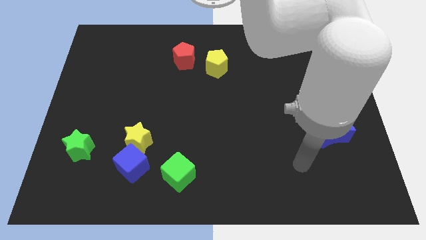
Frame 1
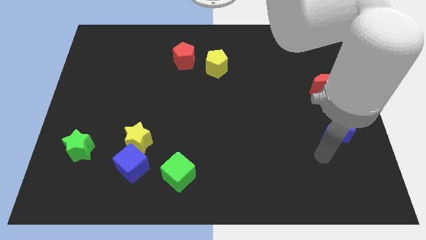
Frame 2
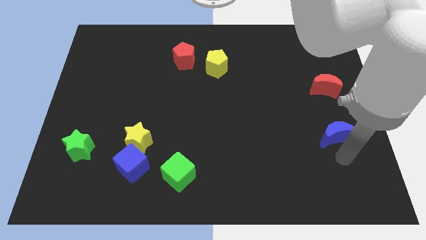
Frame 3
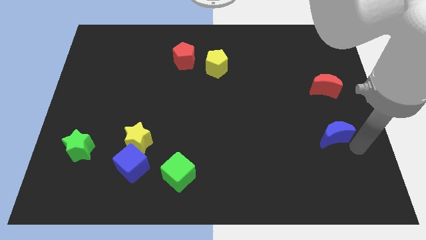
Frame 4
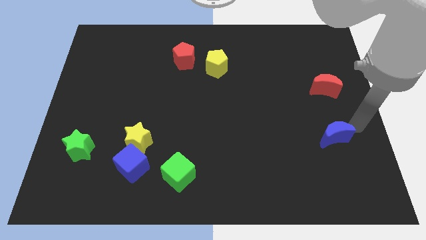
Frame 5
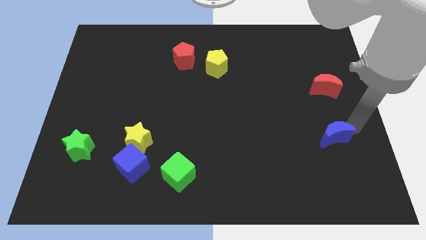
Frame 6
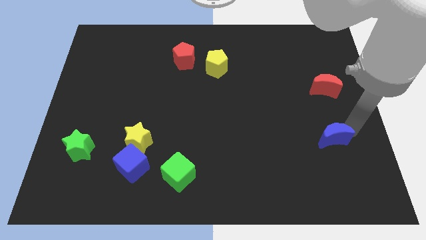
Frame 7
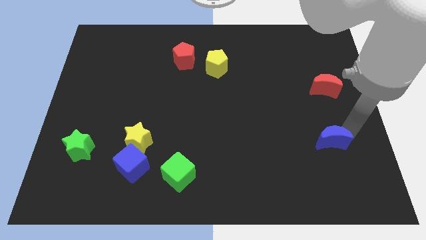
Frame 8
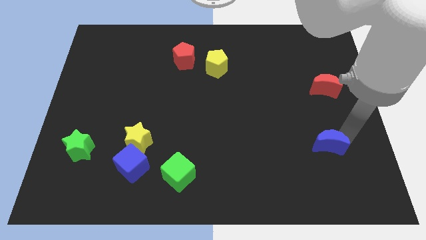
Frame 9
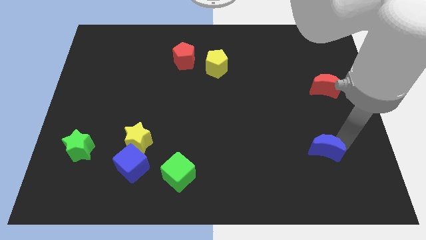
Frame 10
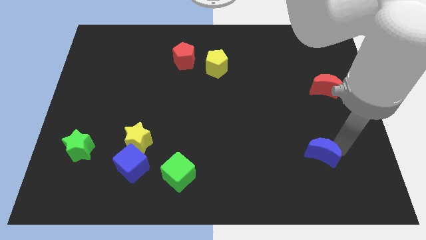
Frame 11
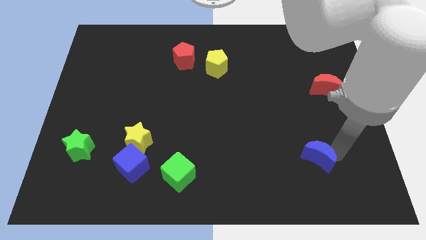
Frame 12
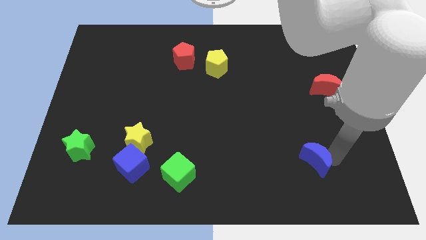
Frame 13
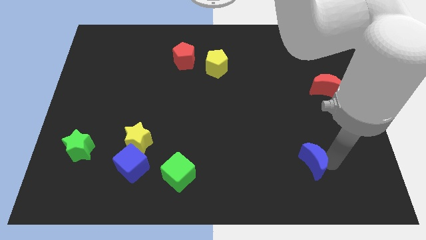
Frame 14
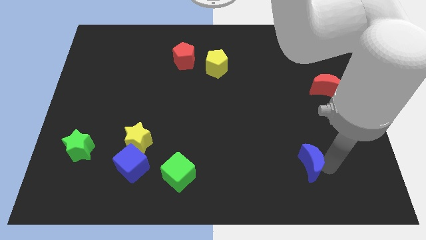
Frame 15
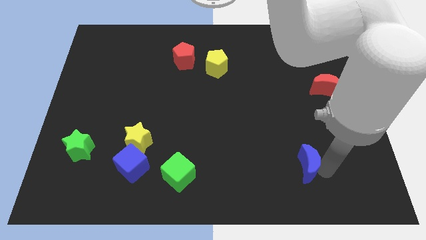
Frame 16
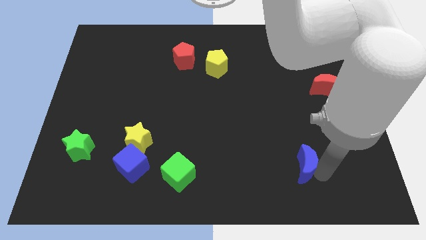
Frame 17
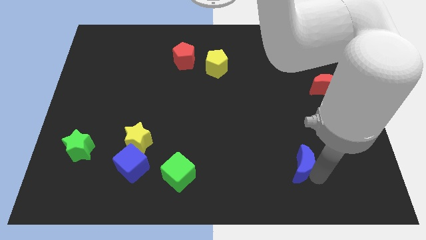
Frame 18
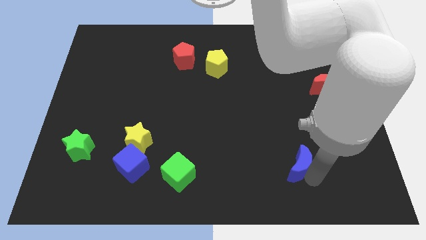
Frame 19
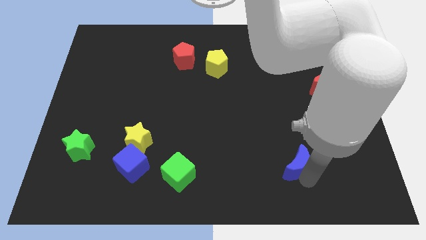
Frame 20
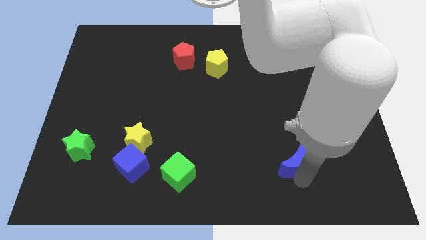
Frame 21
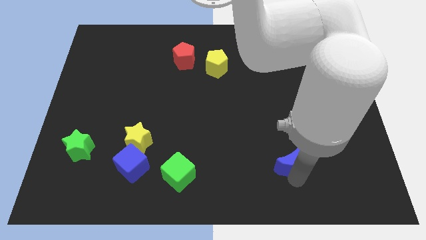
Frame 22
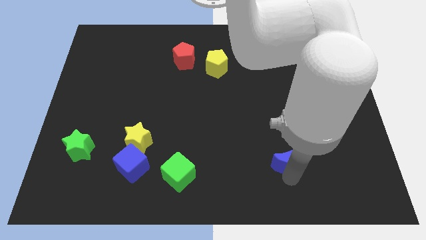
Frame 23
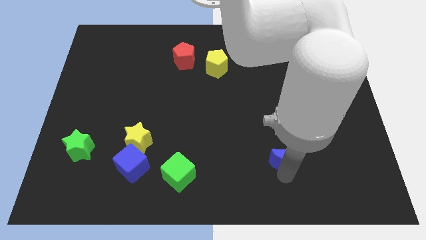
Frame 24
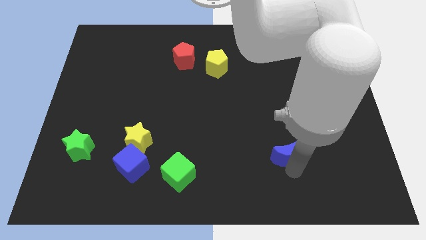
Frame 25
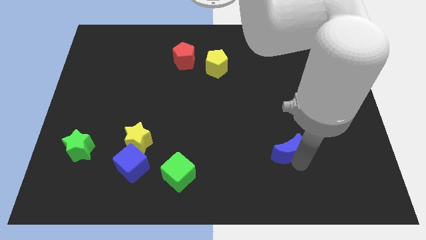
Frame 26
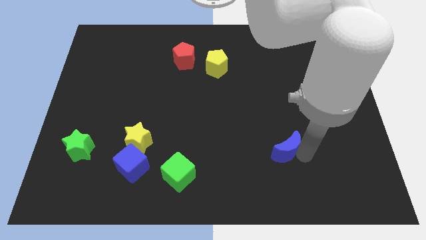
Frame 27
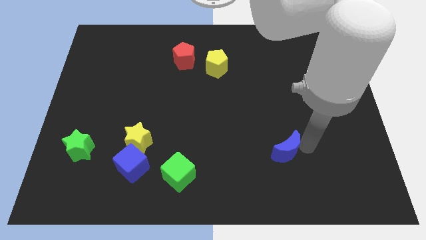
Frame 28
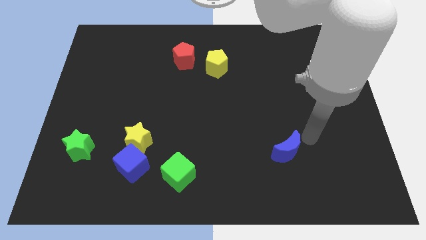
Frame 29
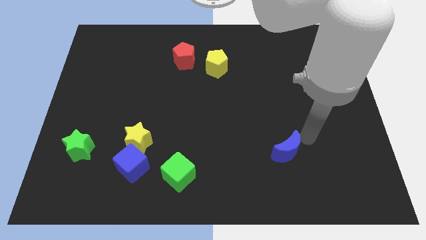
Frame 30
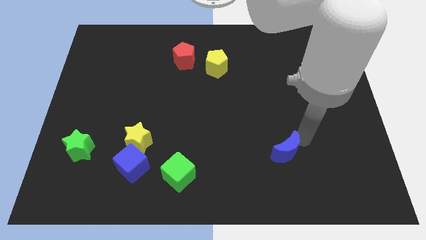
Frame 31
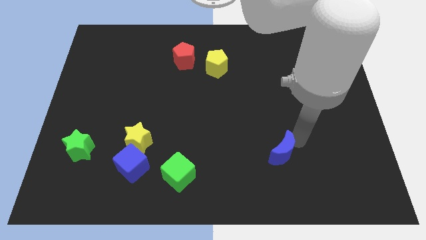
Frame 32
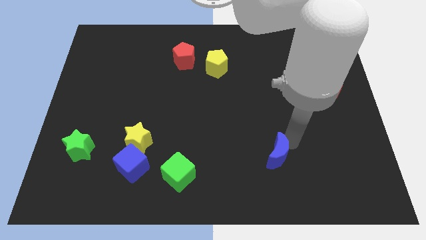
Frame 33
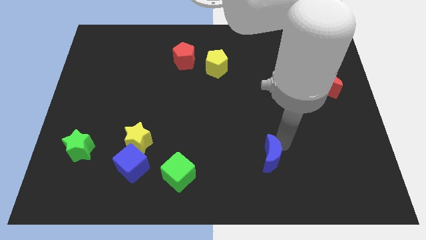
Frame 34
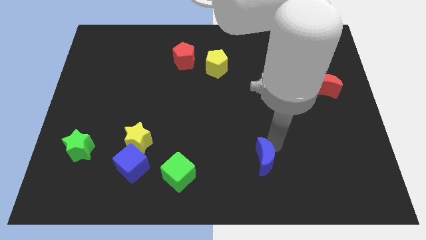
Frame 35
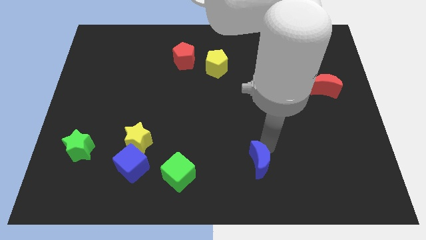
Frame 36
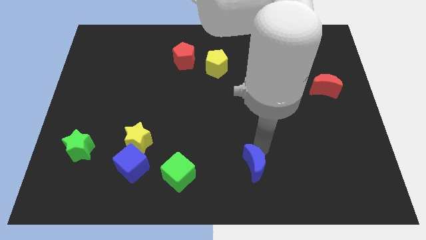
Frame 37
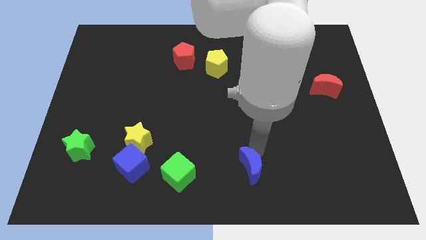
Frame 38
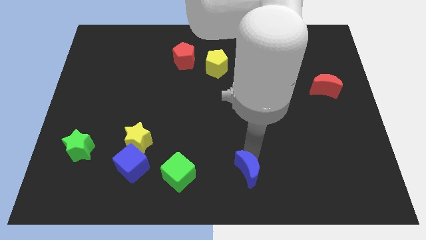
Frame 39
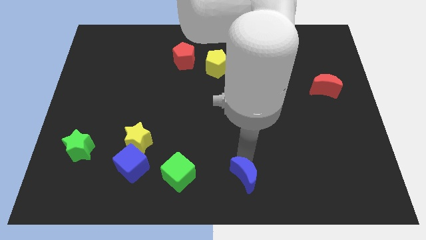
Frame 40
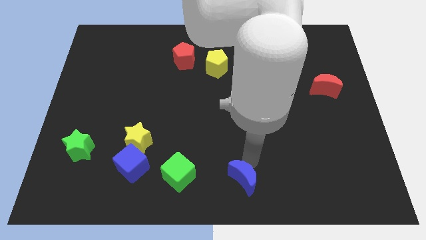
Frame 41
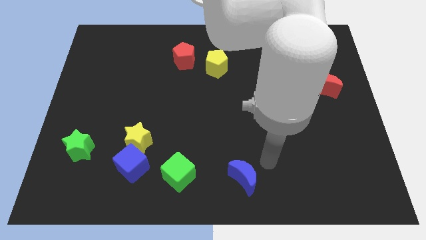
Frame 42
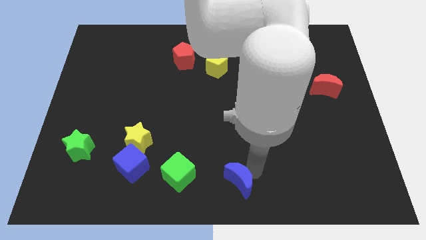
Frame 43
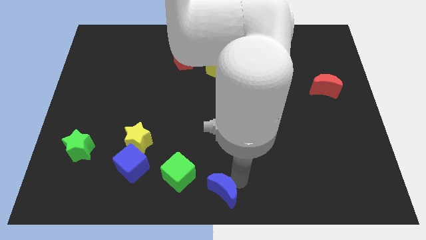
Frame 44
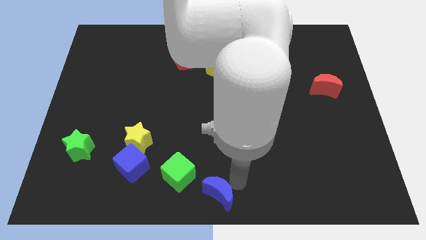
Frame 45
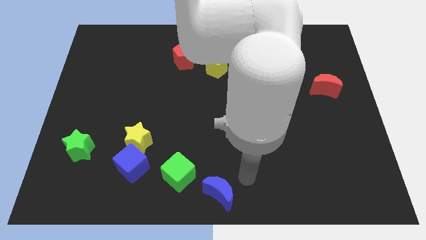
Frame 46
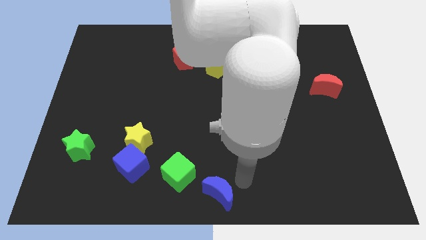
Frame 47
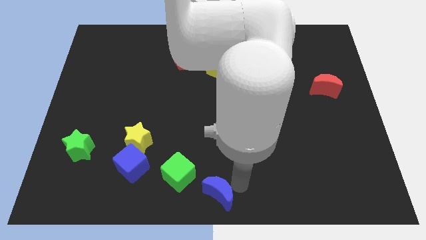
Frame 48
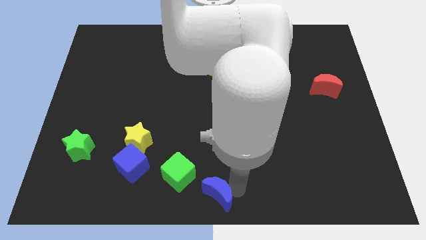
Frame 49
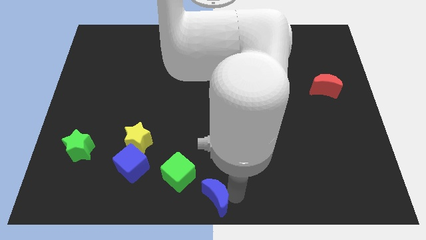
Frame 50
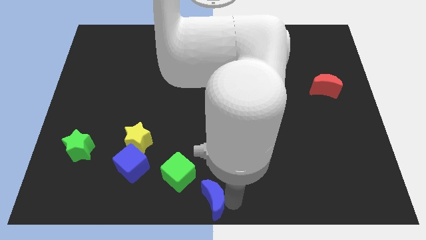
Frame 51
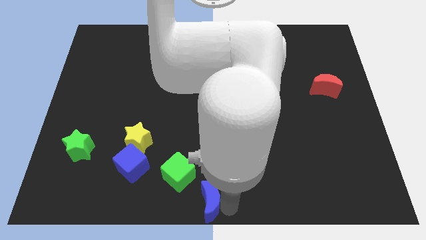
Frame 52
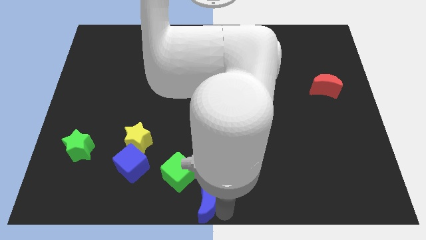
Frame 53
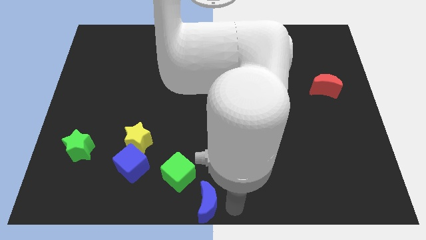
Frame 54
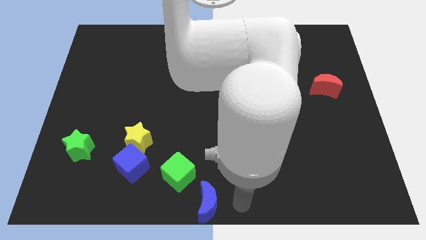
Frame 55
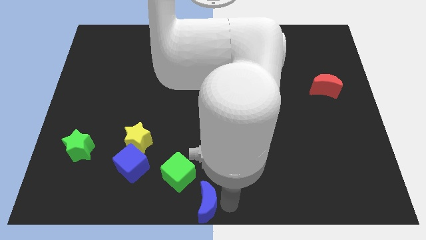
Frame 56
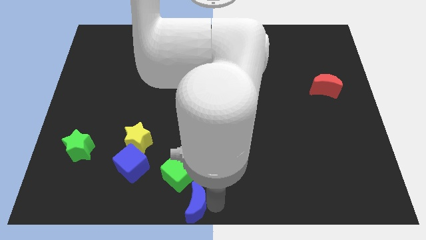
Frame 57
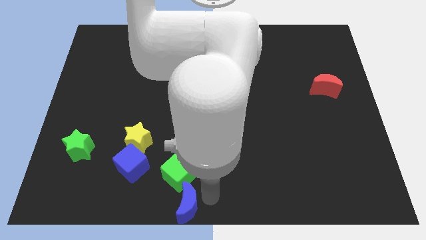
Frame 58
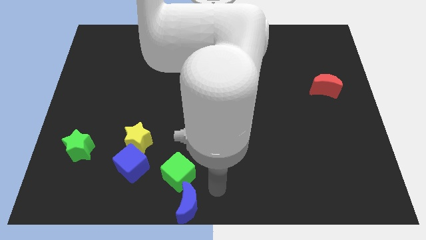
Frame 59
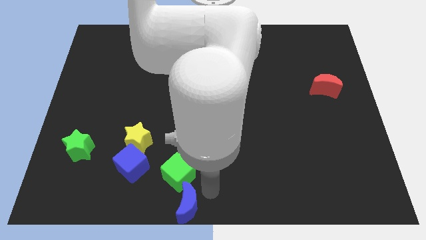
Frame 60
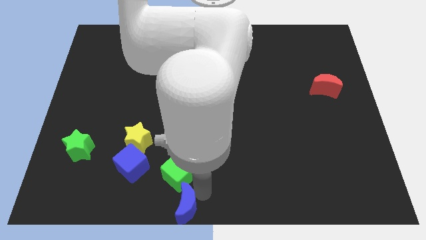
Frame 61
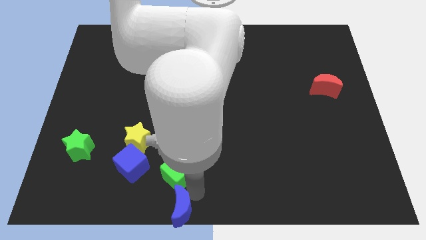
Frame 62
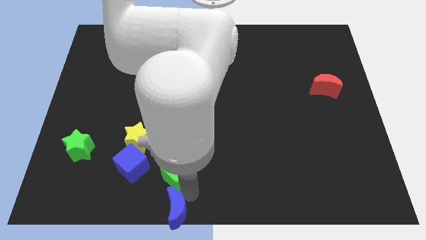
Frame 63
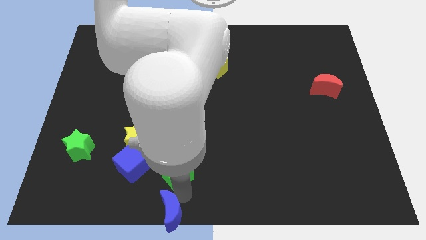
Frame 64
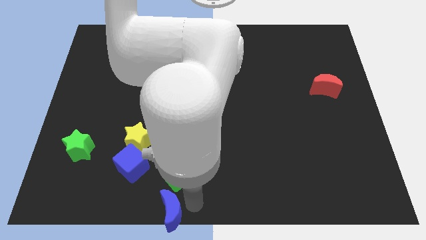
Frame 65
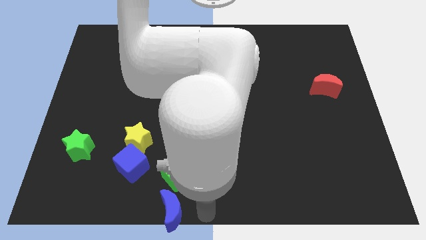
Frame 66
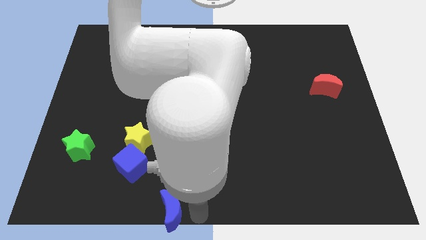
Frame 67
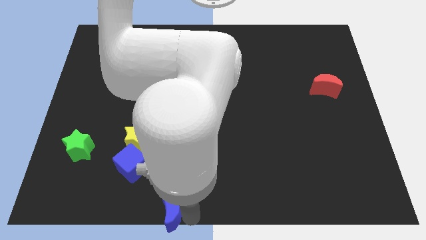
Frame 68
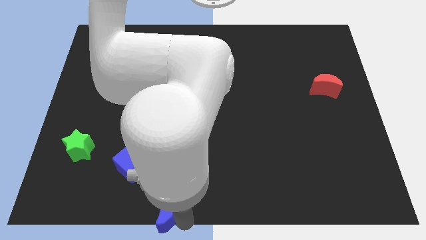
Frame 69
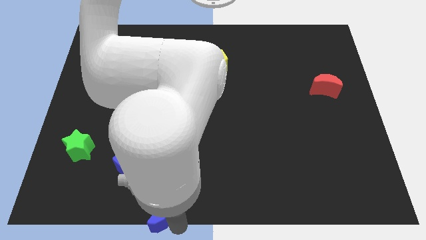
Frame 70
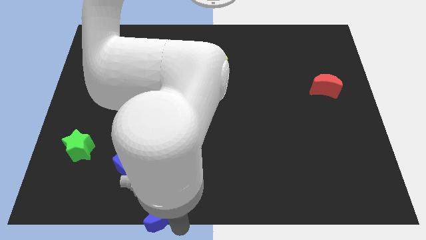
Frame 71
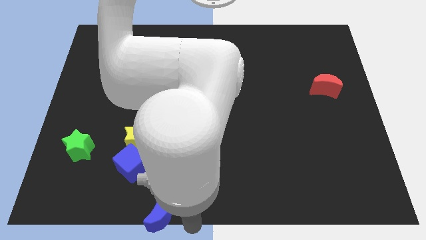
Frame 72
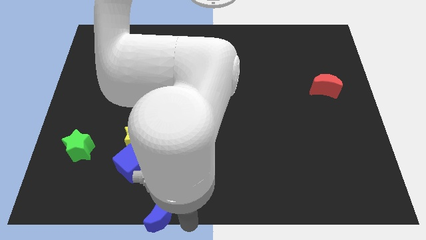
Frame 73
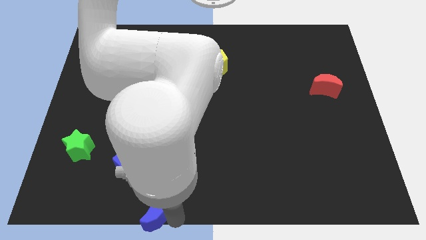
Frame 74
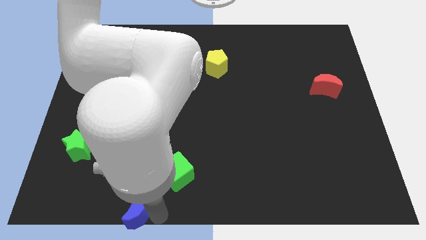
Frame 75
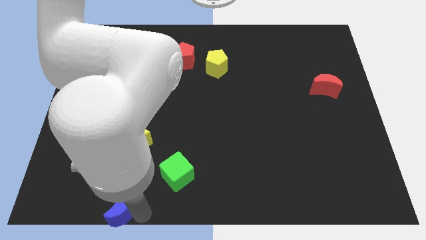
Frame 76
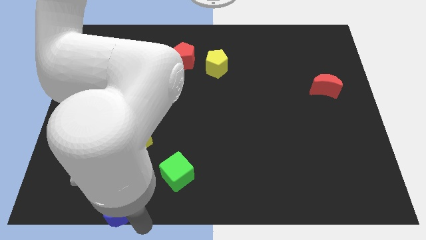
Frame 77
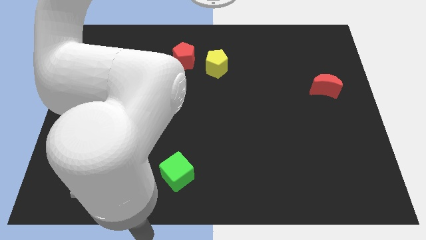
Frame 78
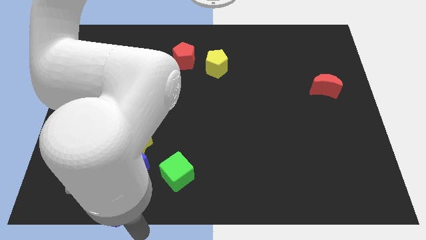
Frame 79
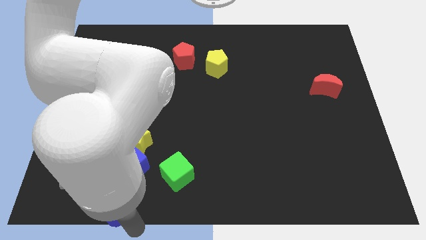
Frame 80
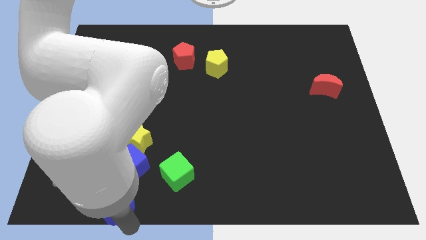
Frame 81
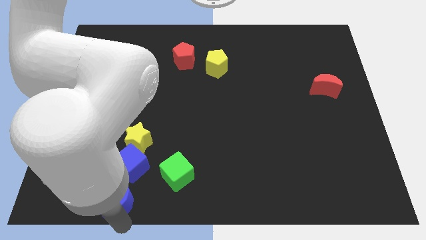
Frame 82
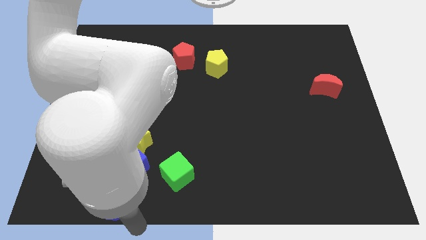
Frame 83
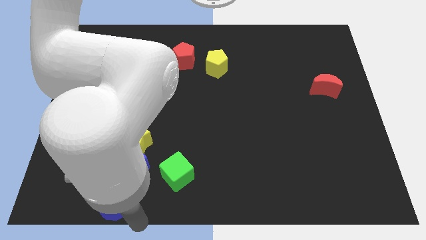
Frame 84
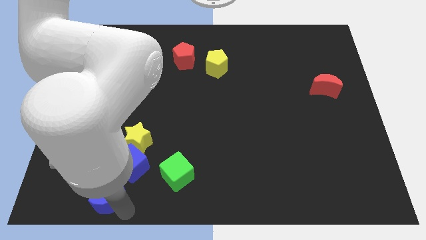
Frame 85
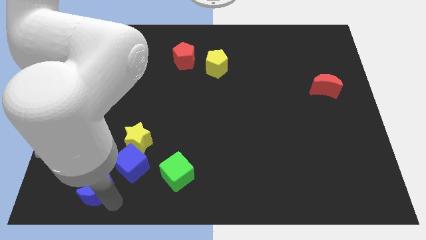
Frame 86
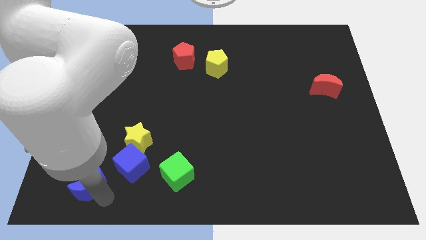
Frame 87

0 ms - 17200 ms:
push the blue moon left of the blue cube
